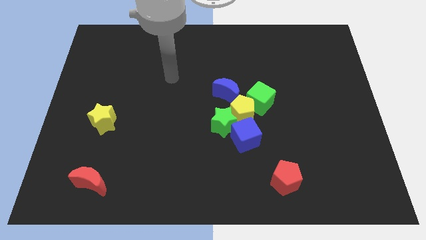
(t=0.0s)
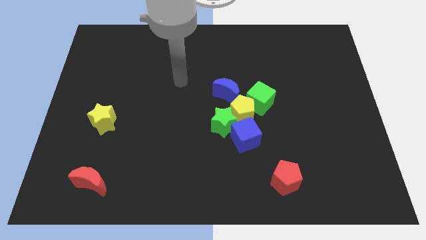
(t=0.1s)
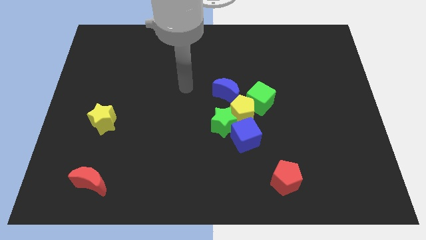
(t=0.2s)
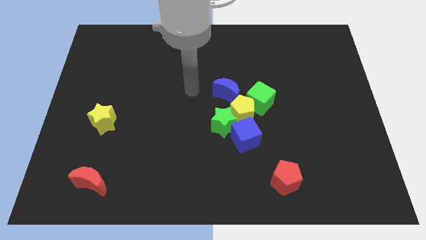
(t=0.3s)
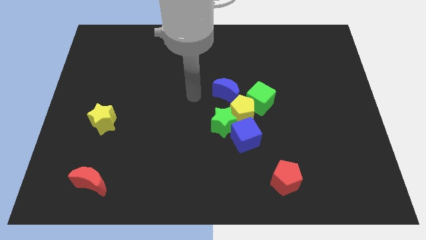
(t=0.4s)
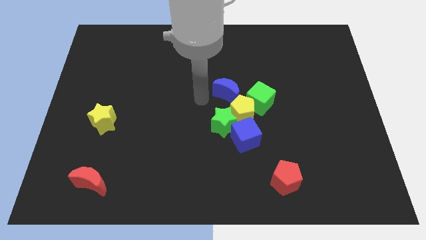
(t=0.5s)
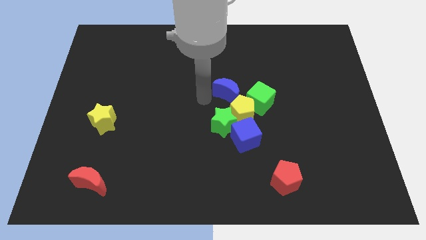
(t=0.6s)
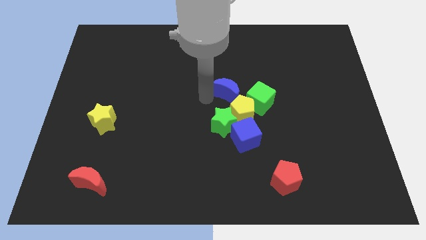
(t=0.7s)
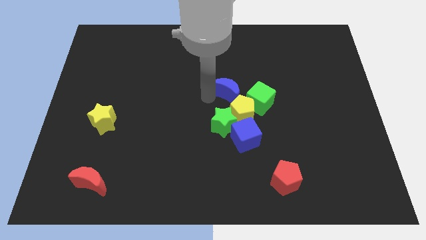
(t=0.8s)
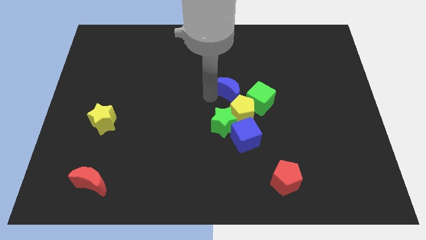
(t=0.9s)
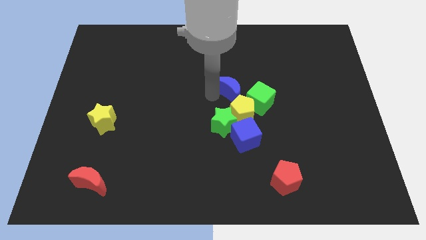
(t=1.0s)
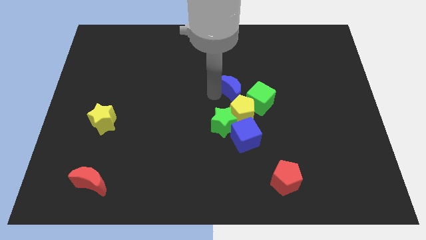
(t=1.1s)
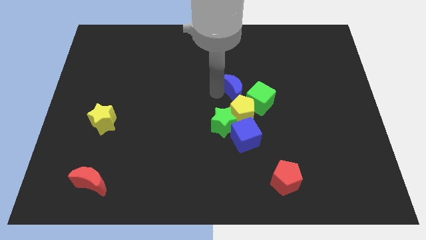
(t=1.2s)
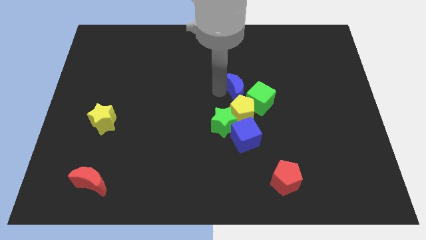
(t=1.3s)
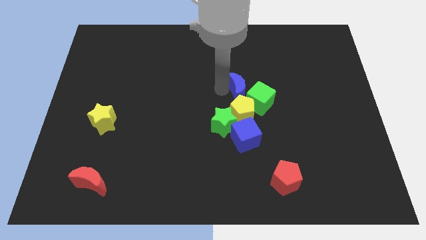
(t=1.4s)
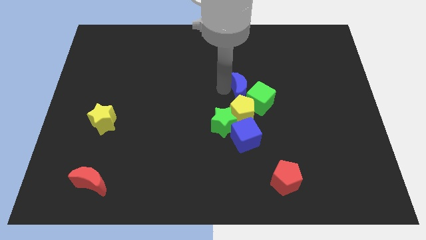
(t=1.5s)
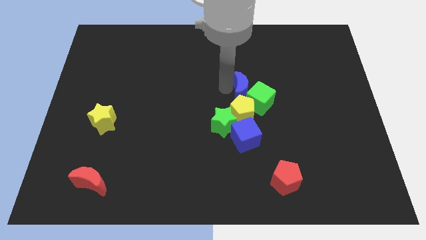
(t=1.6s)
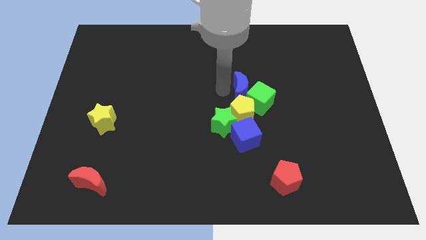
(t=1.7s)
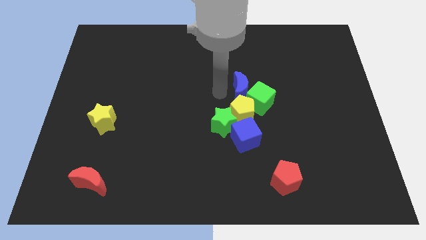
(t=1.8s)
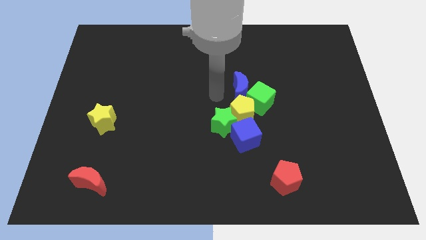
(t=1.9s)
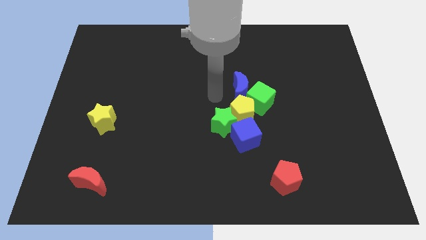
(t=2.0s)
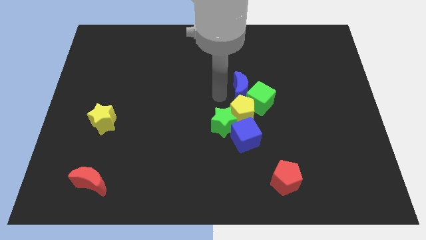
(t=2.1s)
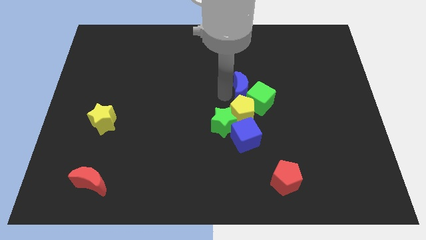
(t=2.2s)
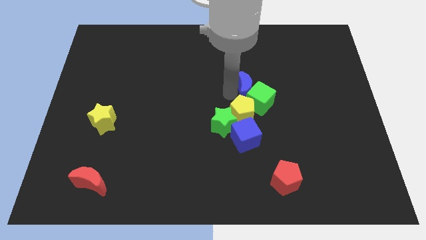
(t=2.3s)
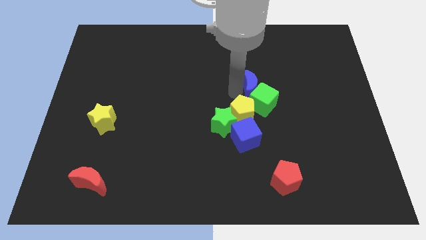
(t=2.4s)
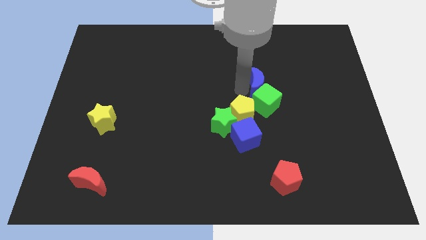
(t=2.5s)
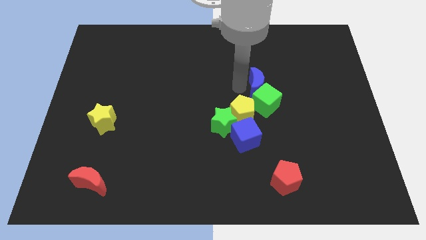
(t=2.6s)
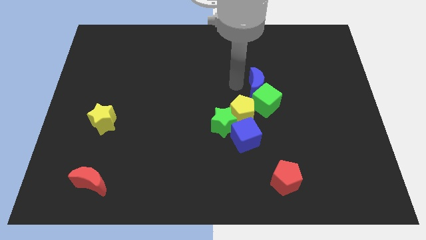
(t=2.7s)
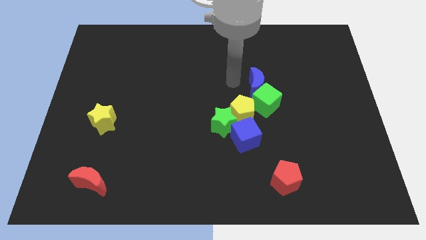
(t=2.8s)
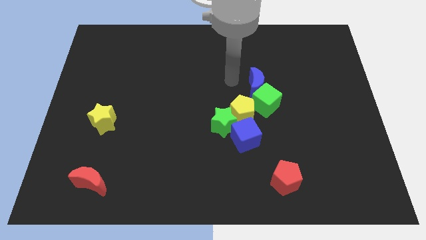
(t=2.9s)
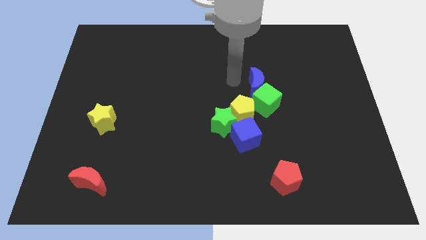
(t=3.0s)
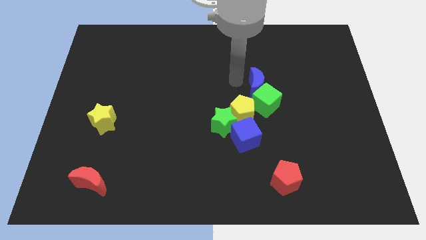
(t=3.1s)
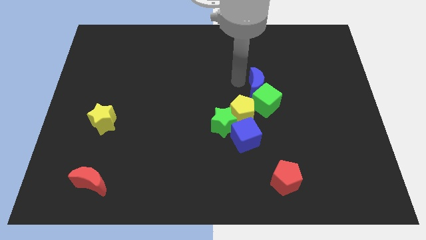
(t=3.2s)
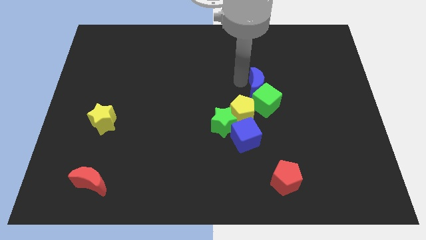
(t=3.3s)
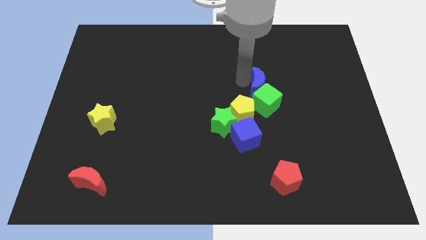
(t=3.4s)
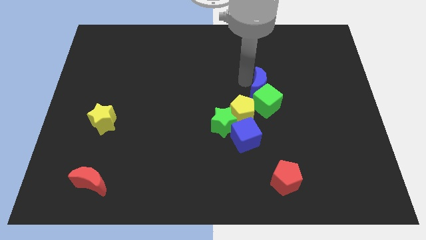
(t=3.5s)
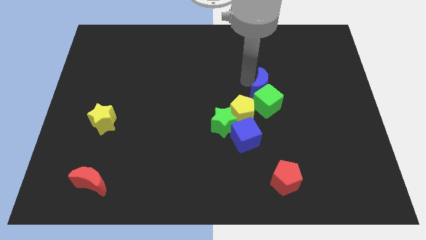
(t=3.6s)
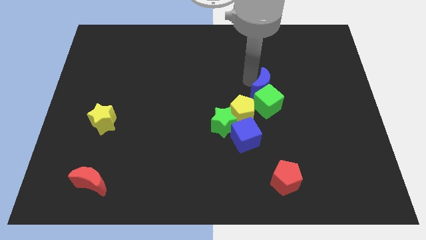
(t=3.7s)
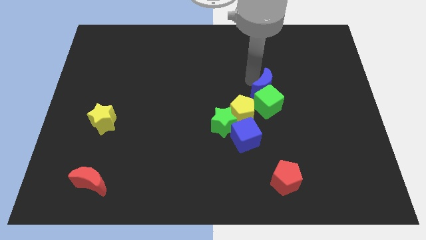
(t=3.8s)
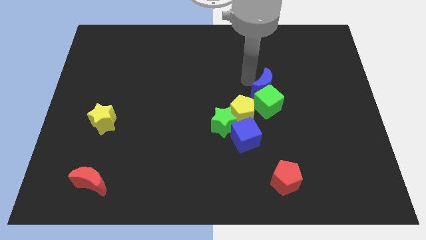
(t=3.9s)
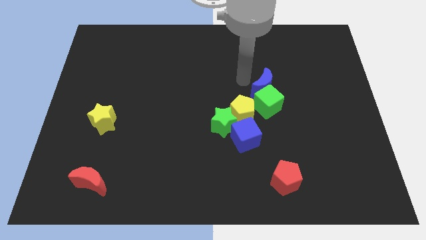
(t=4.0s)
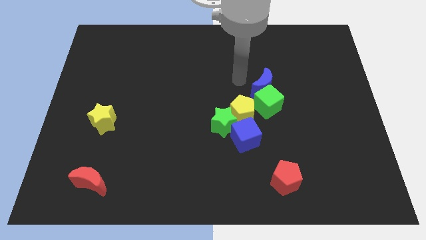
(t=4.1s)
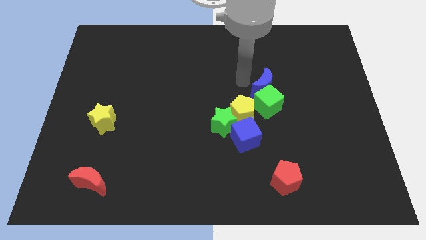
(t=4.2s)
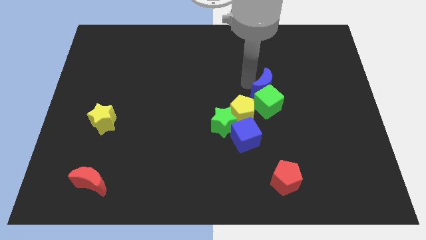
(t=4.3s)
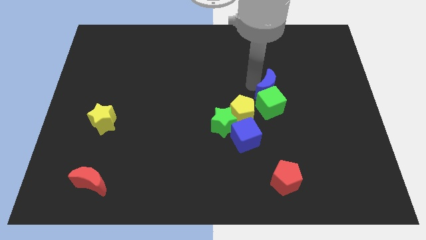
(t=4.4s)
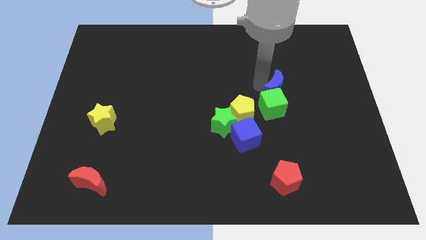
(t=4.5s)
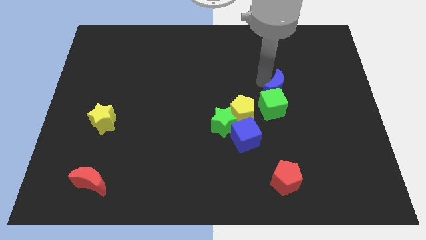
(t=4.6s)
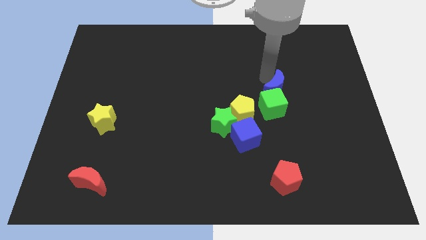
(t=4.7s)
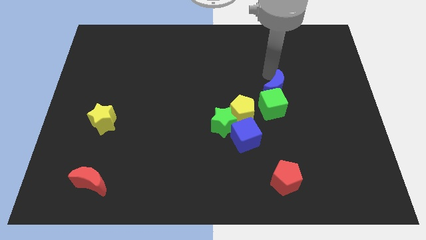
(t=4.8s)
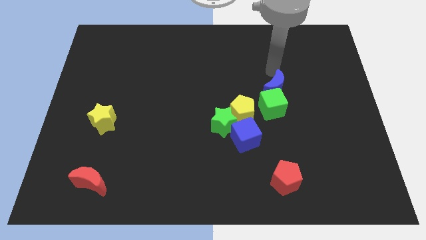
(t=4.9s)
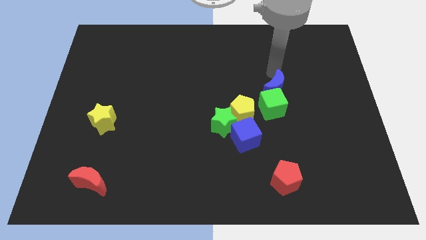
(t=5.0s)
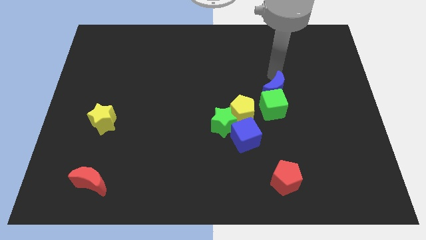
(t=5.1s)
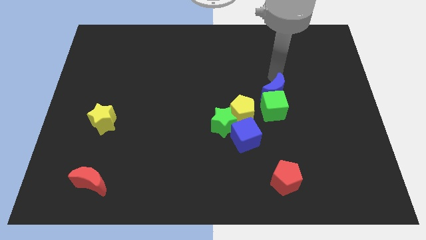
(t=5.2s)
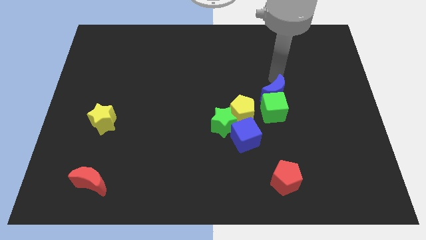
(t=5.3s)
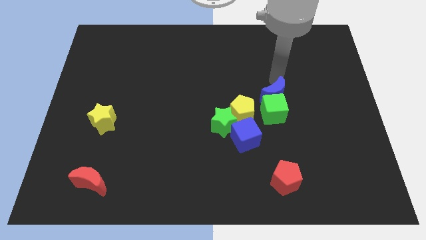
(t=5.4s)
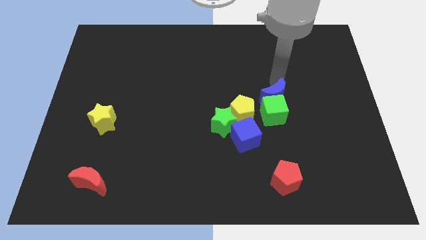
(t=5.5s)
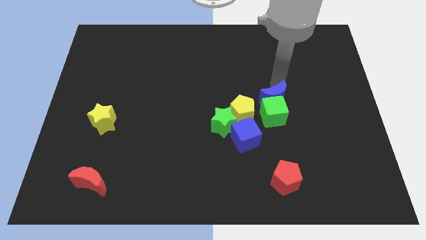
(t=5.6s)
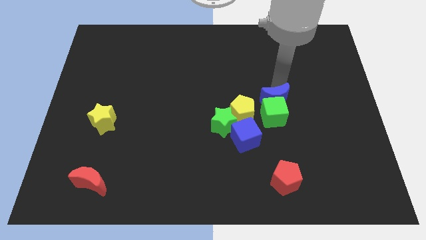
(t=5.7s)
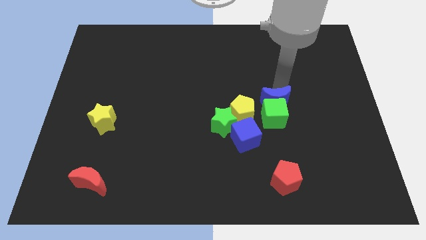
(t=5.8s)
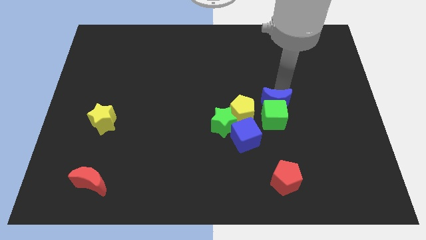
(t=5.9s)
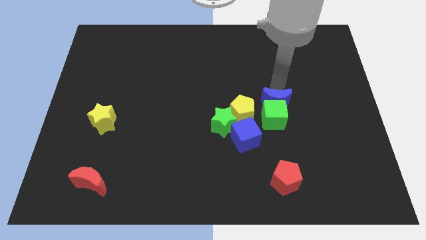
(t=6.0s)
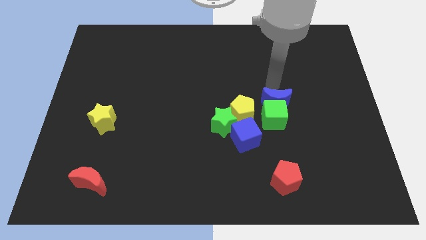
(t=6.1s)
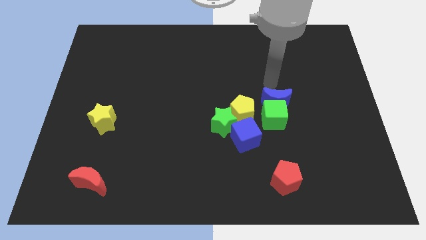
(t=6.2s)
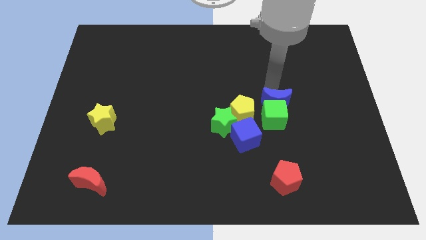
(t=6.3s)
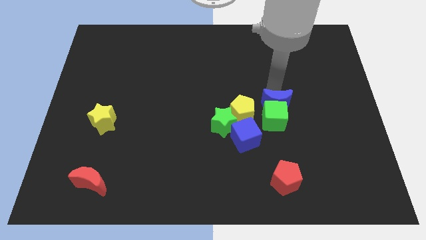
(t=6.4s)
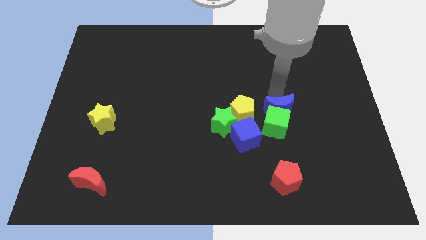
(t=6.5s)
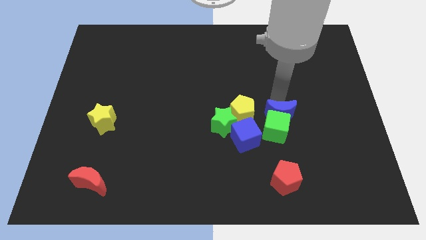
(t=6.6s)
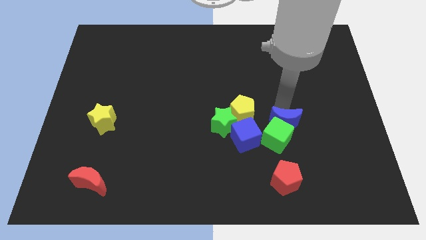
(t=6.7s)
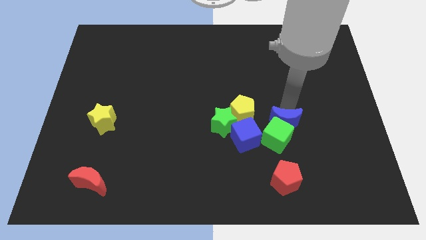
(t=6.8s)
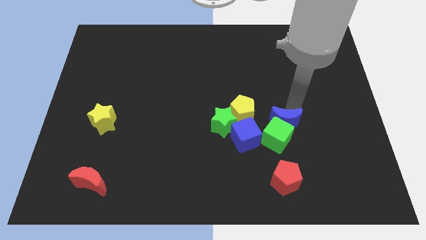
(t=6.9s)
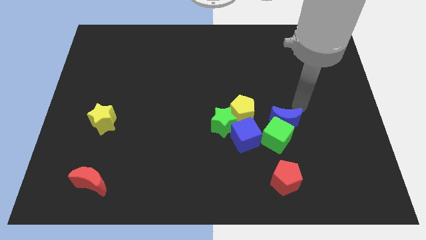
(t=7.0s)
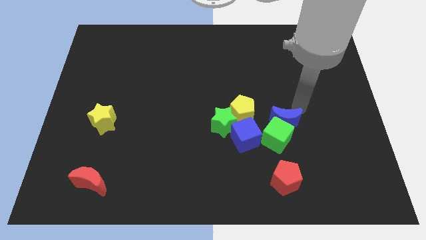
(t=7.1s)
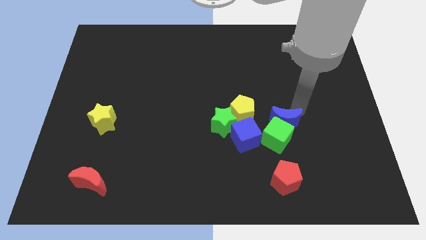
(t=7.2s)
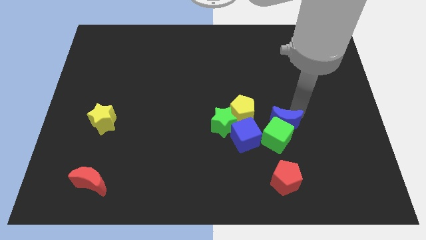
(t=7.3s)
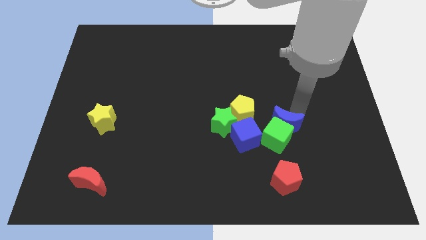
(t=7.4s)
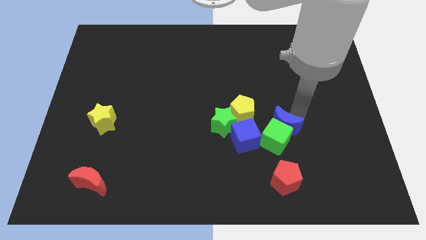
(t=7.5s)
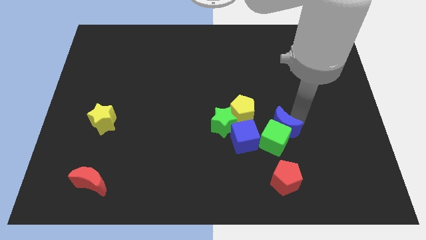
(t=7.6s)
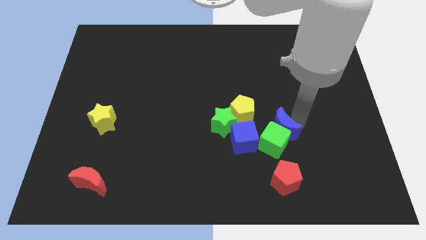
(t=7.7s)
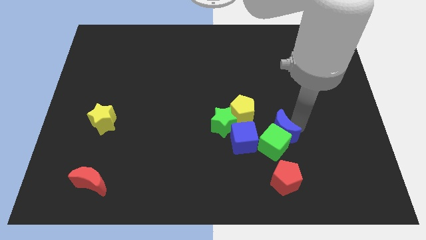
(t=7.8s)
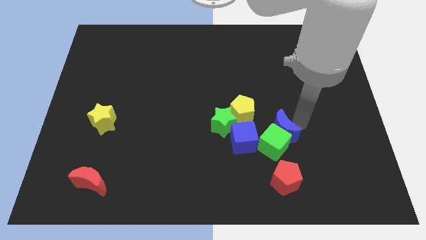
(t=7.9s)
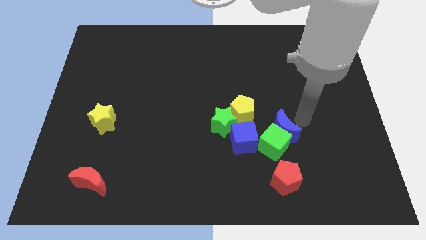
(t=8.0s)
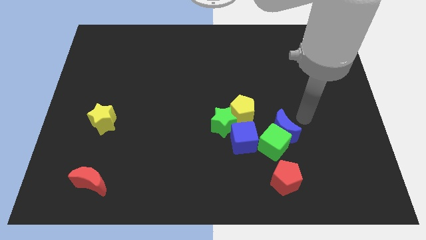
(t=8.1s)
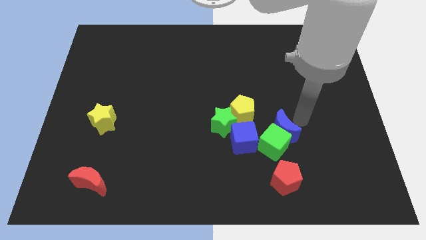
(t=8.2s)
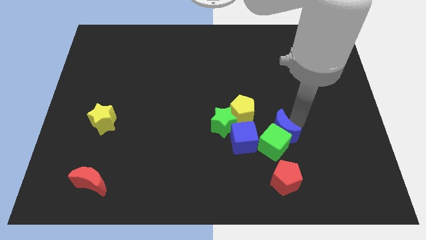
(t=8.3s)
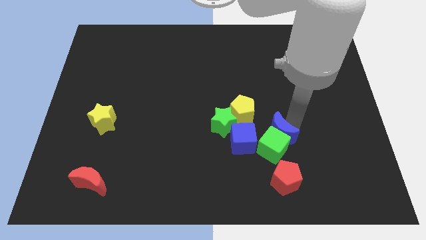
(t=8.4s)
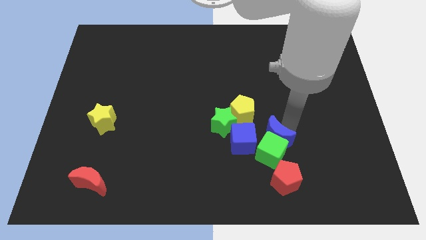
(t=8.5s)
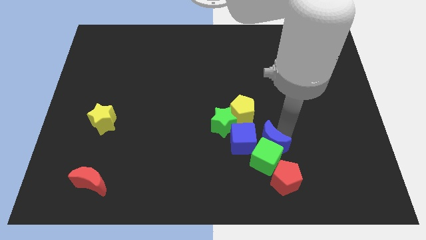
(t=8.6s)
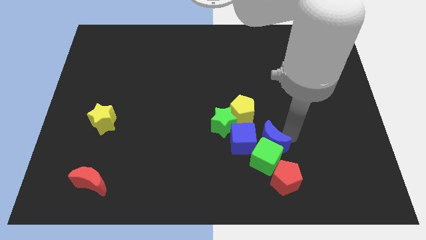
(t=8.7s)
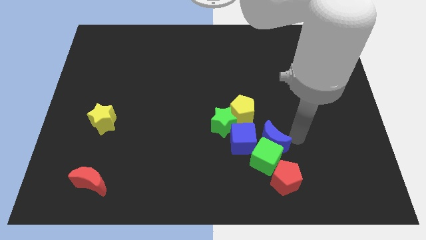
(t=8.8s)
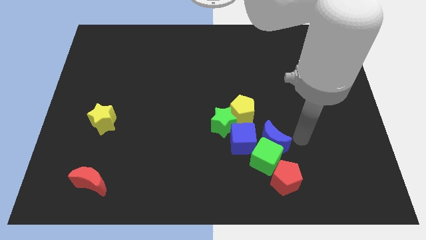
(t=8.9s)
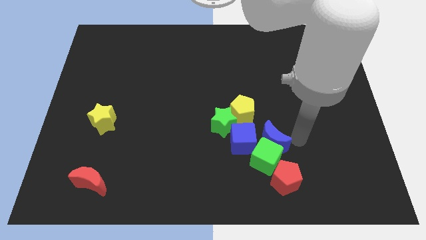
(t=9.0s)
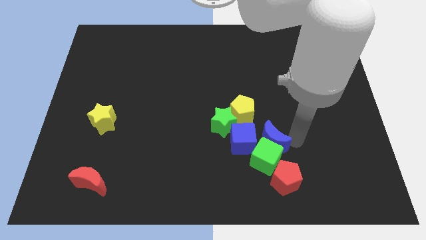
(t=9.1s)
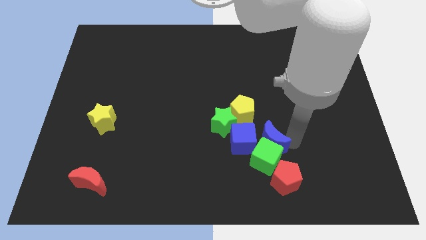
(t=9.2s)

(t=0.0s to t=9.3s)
put the blue moon to the bottom right side of the green star
